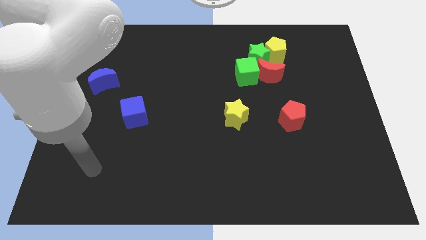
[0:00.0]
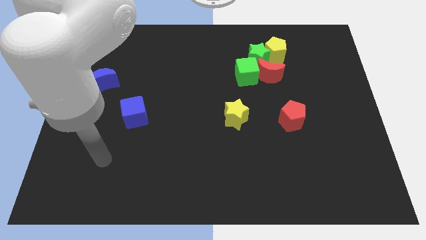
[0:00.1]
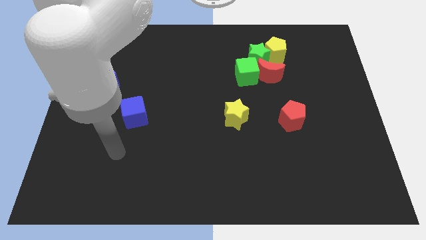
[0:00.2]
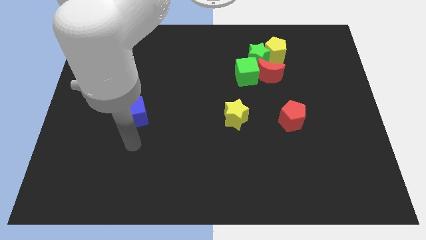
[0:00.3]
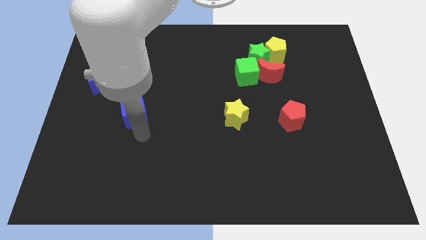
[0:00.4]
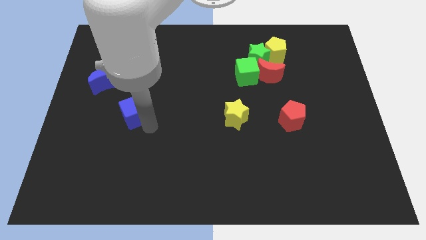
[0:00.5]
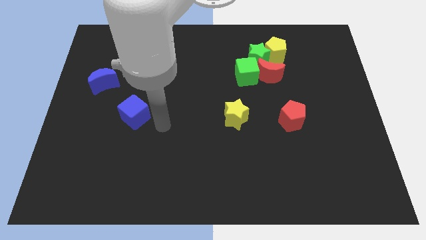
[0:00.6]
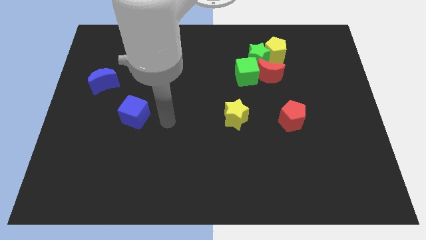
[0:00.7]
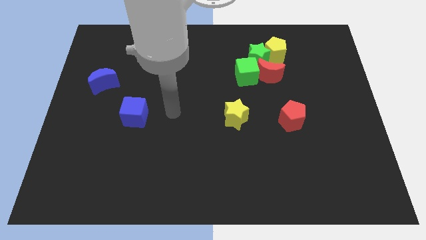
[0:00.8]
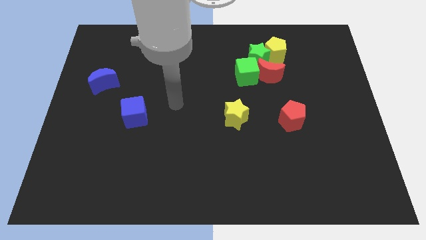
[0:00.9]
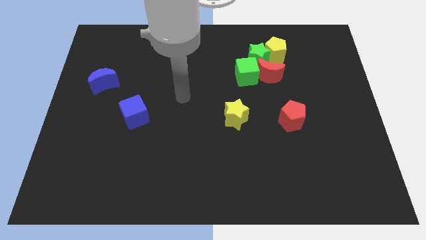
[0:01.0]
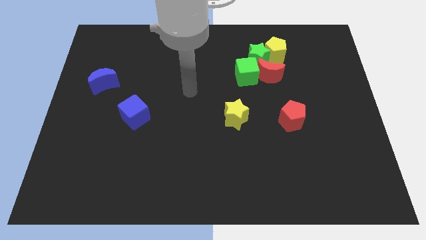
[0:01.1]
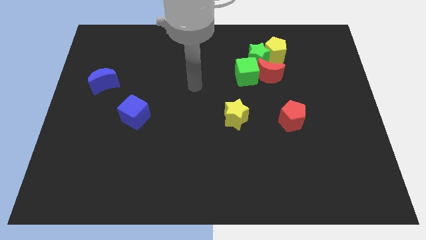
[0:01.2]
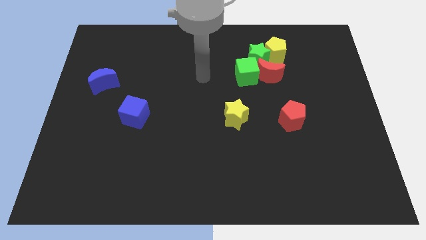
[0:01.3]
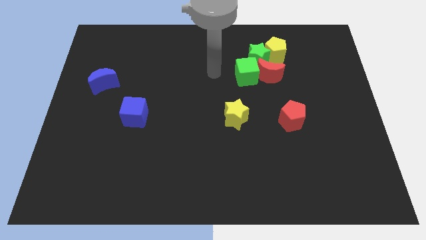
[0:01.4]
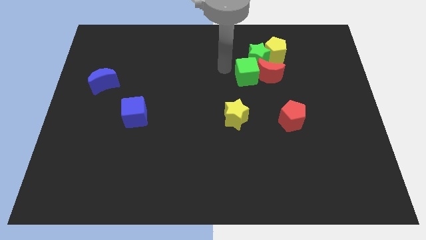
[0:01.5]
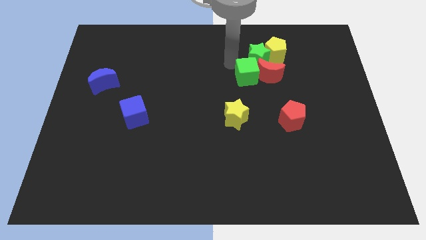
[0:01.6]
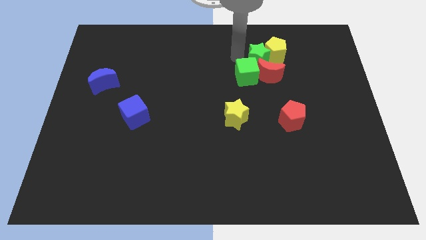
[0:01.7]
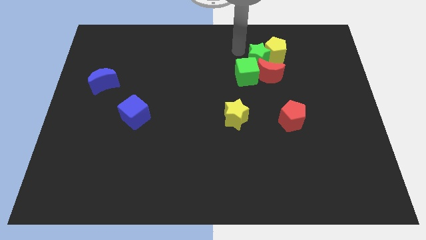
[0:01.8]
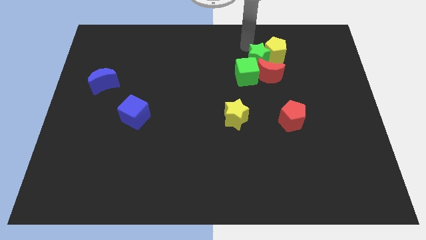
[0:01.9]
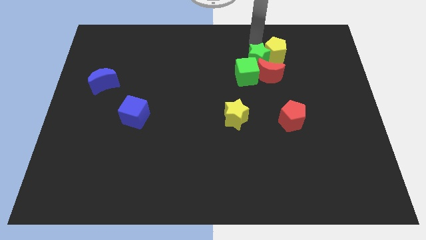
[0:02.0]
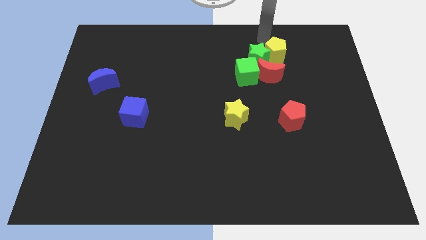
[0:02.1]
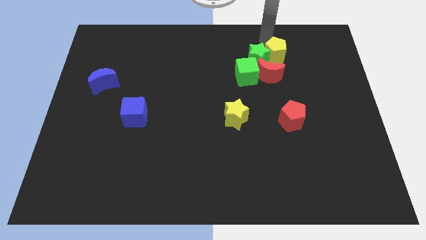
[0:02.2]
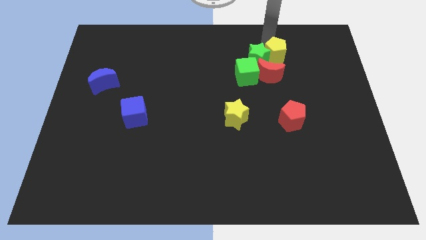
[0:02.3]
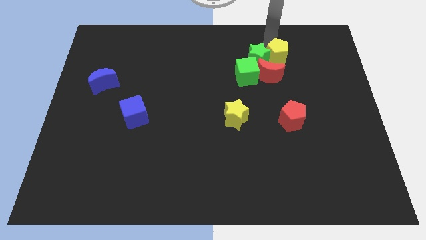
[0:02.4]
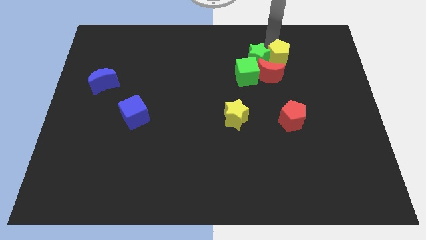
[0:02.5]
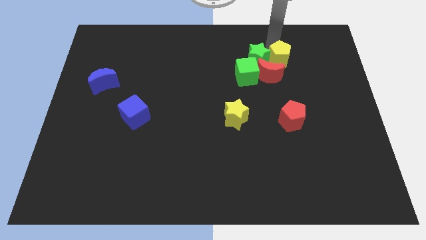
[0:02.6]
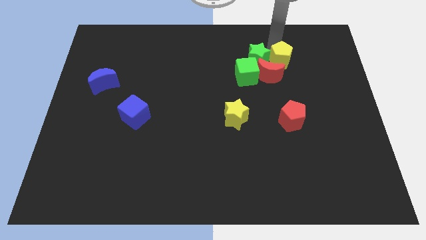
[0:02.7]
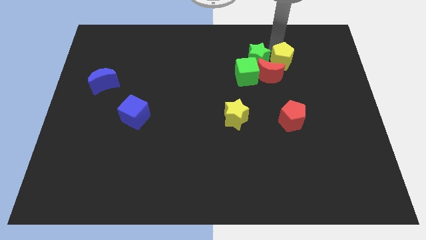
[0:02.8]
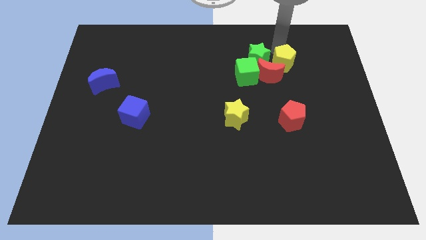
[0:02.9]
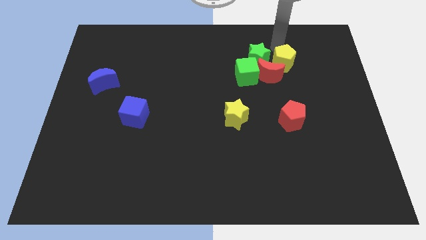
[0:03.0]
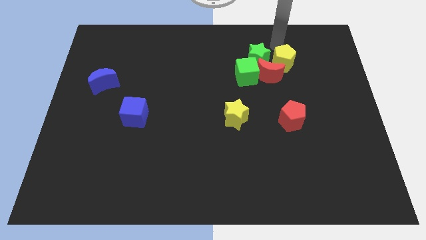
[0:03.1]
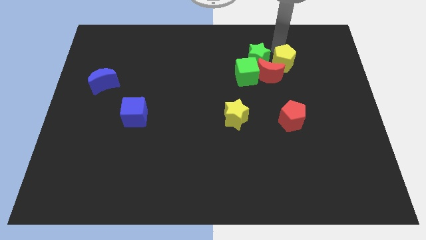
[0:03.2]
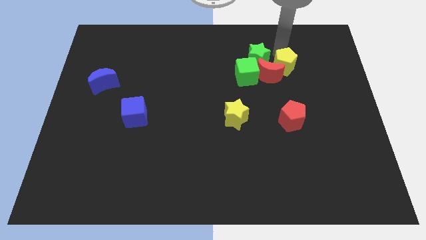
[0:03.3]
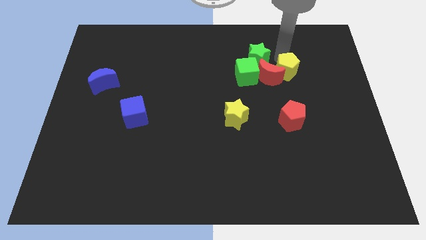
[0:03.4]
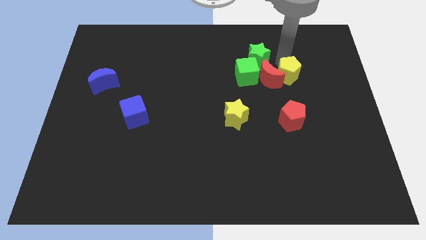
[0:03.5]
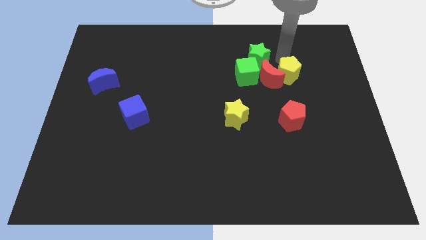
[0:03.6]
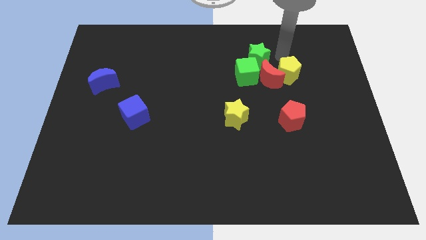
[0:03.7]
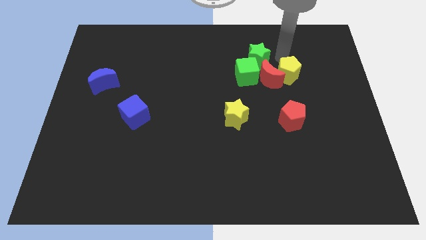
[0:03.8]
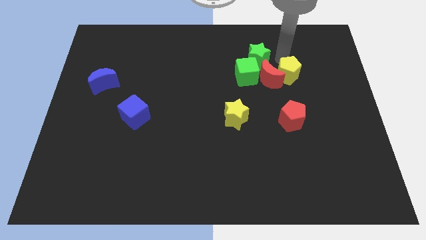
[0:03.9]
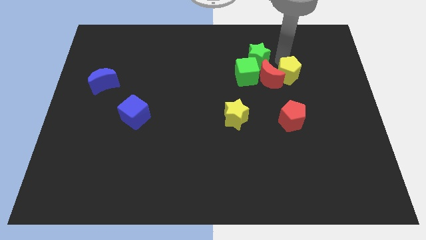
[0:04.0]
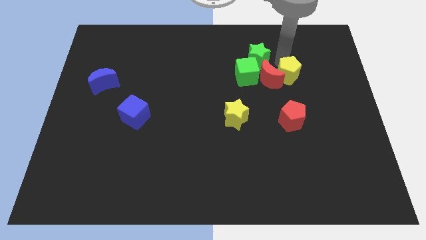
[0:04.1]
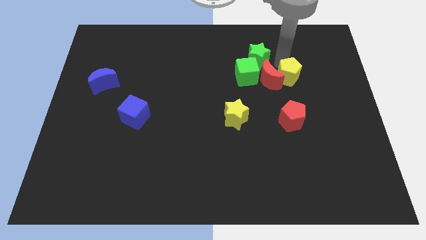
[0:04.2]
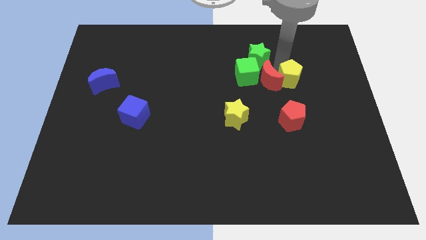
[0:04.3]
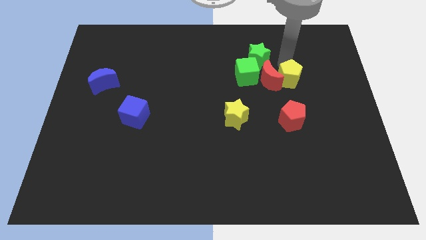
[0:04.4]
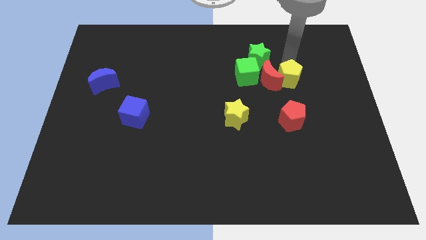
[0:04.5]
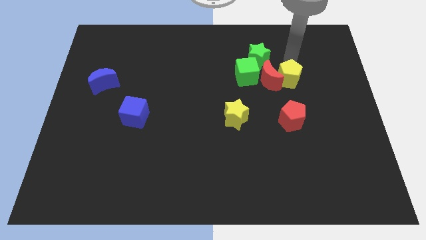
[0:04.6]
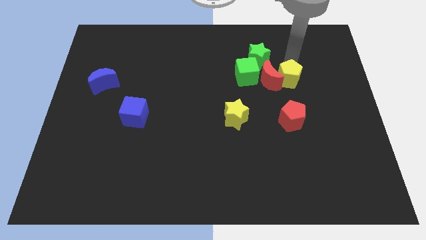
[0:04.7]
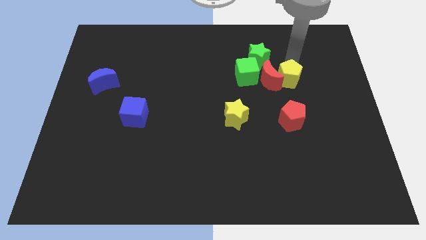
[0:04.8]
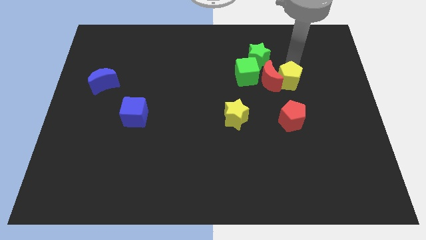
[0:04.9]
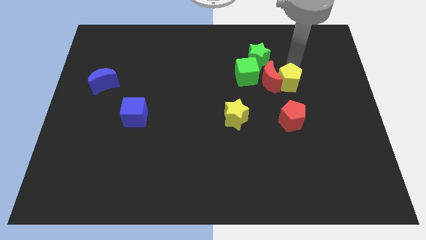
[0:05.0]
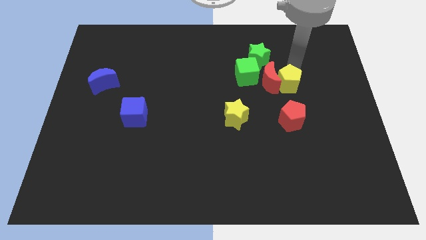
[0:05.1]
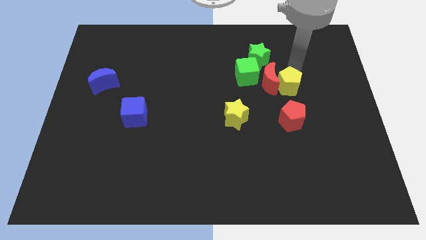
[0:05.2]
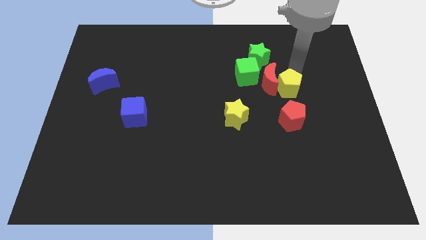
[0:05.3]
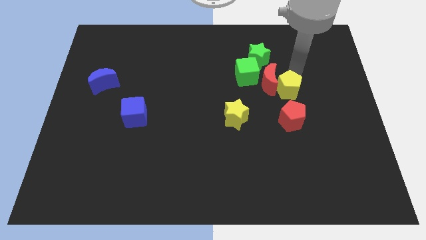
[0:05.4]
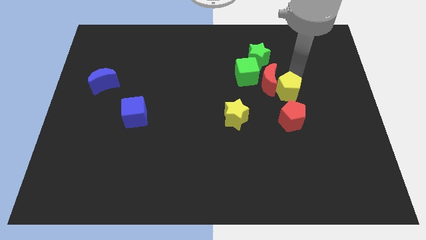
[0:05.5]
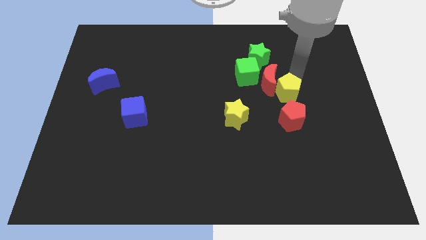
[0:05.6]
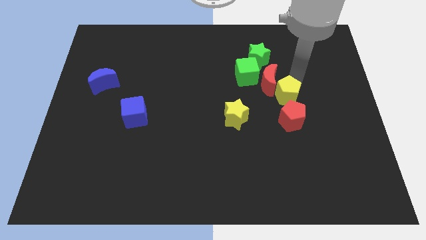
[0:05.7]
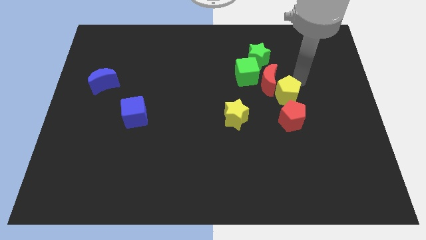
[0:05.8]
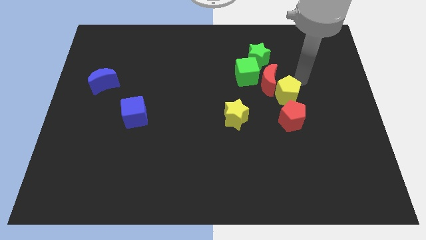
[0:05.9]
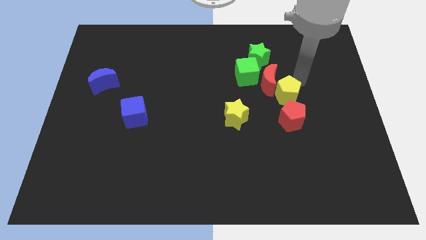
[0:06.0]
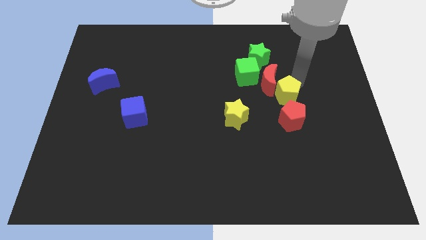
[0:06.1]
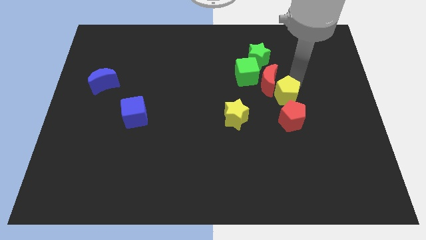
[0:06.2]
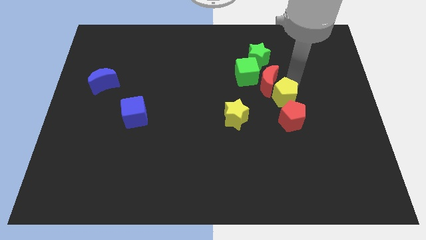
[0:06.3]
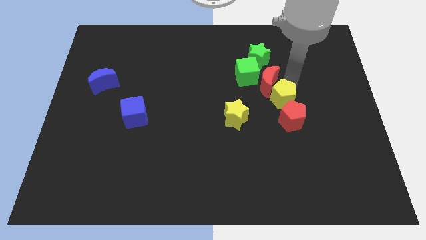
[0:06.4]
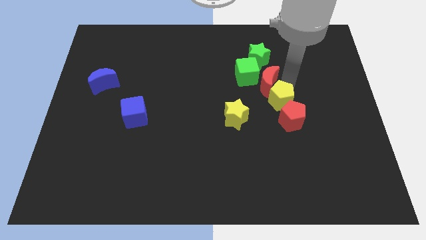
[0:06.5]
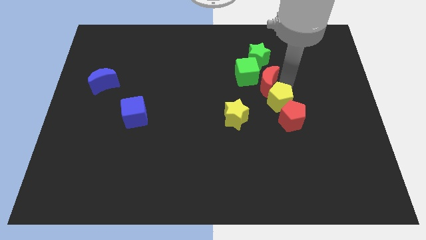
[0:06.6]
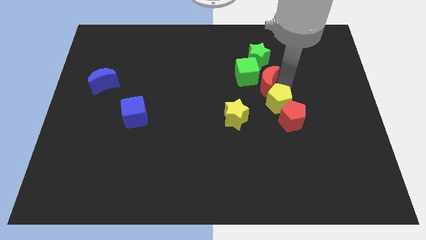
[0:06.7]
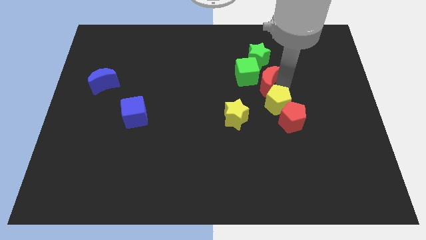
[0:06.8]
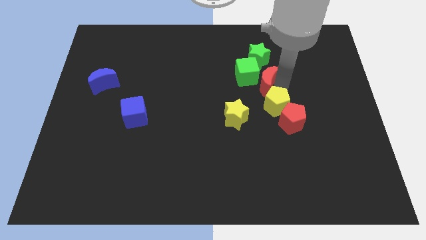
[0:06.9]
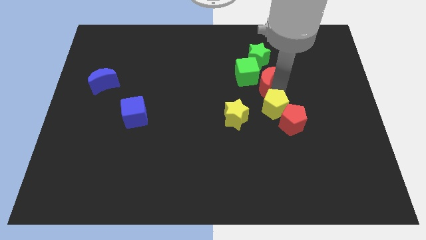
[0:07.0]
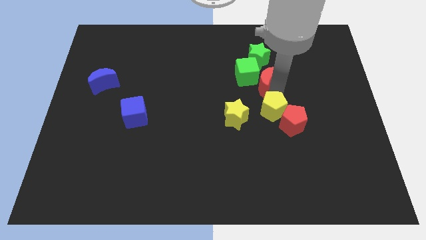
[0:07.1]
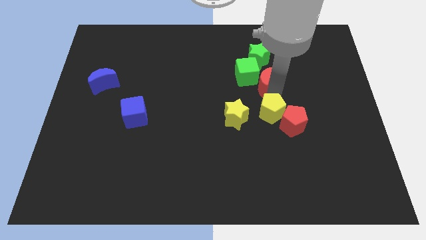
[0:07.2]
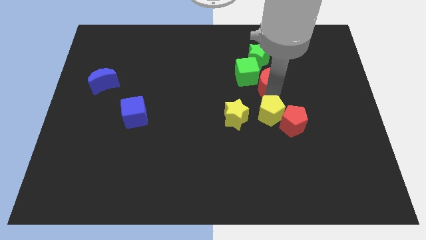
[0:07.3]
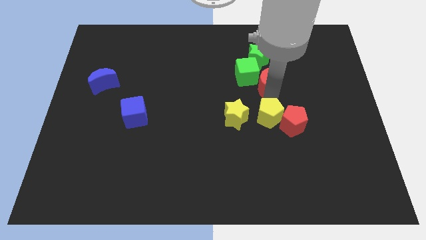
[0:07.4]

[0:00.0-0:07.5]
move the yellow pentagon down

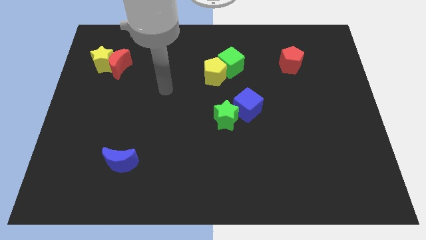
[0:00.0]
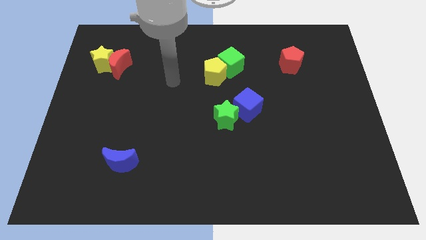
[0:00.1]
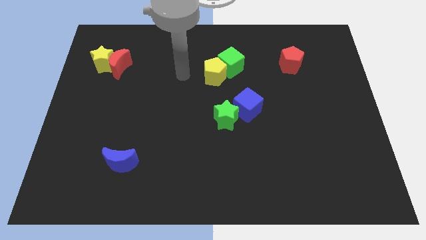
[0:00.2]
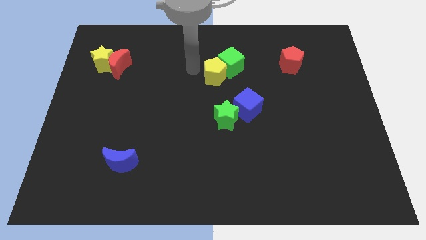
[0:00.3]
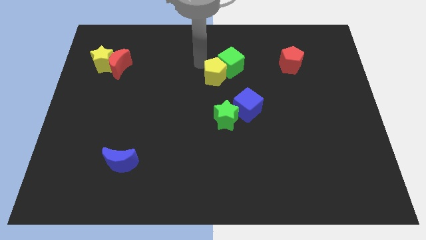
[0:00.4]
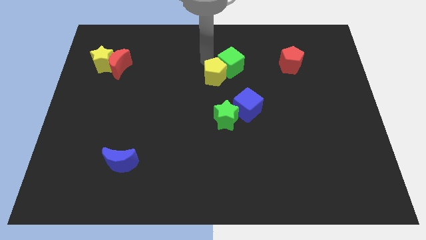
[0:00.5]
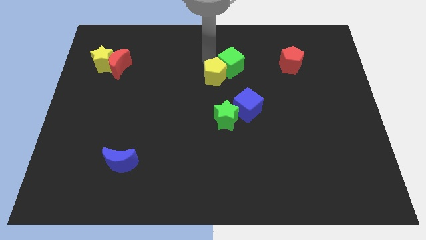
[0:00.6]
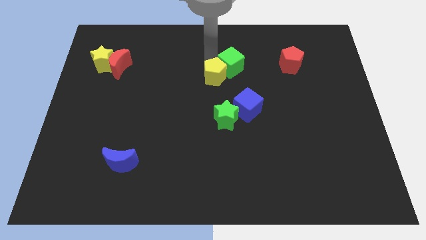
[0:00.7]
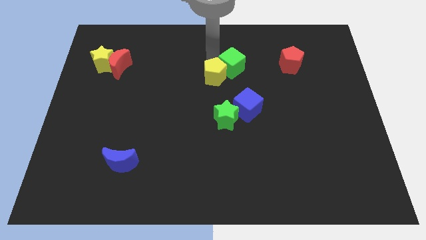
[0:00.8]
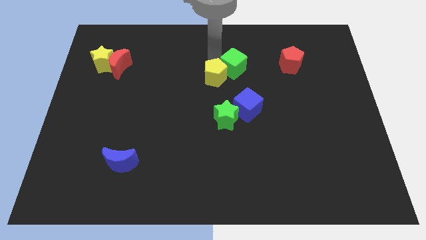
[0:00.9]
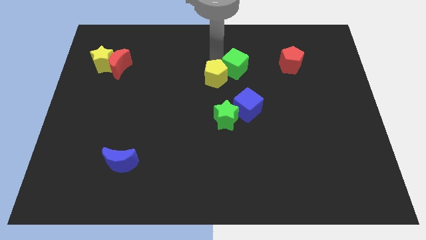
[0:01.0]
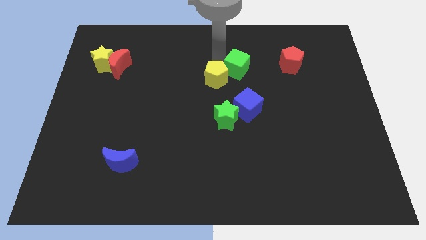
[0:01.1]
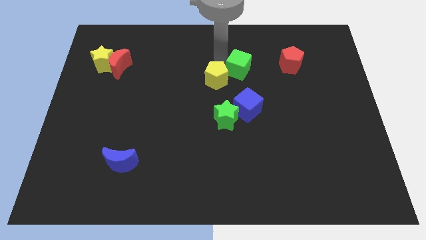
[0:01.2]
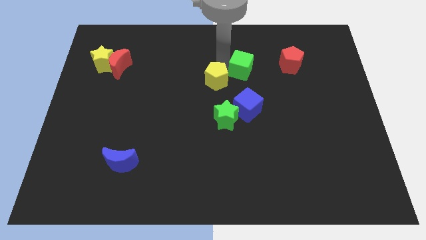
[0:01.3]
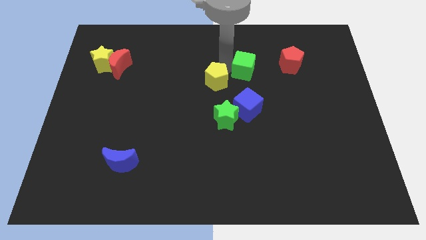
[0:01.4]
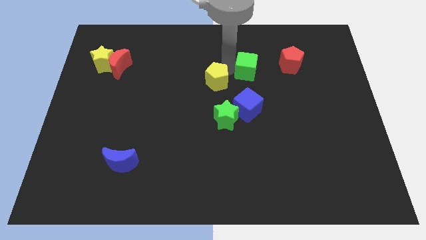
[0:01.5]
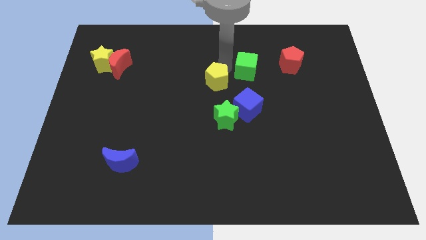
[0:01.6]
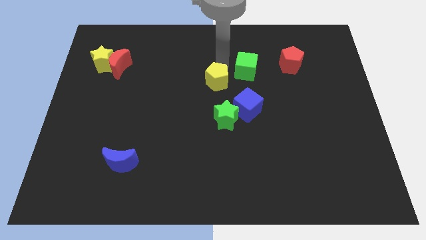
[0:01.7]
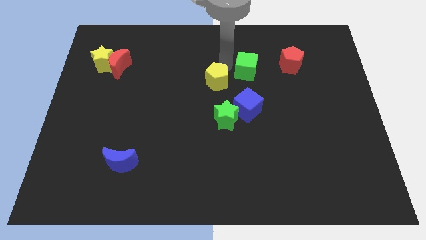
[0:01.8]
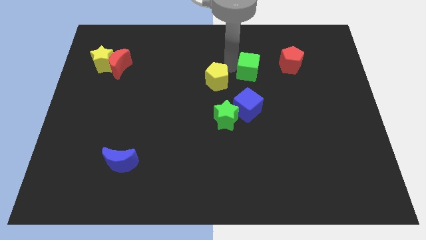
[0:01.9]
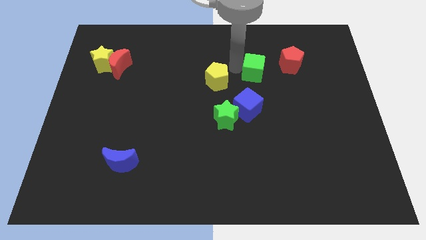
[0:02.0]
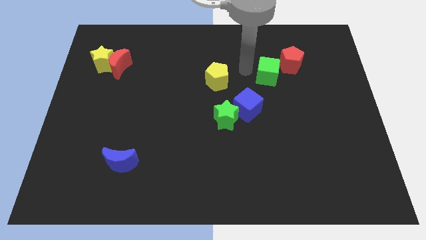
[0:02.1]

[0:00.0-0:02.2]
slightly move the green cube to the right
